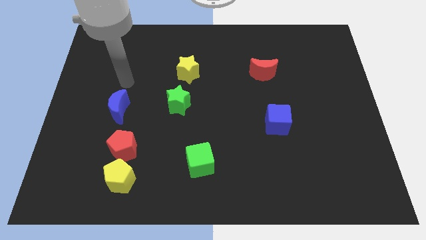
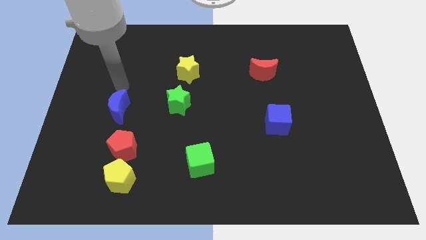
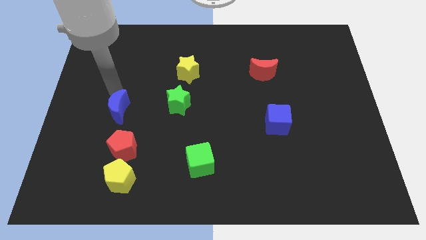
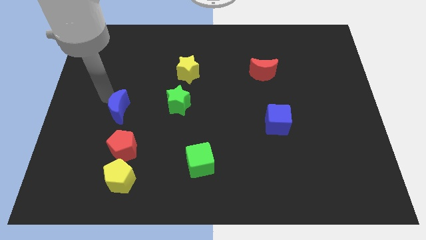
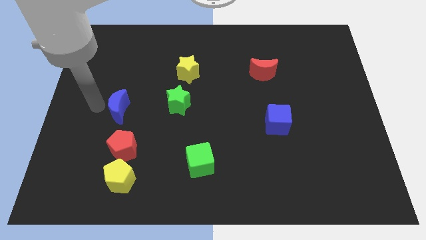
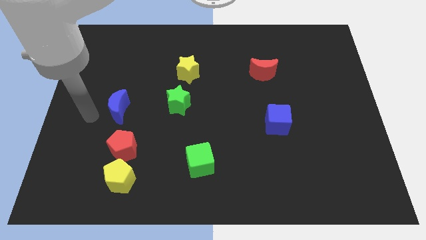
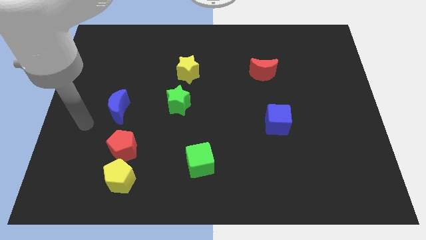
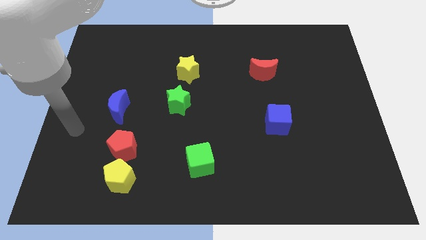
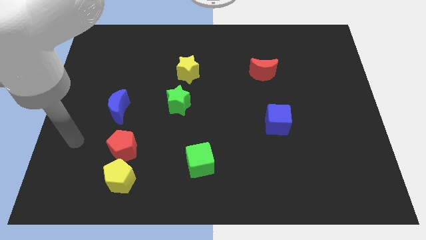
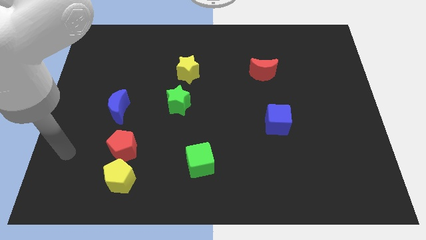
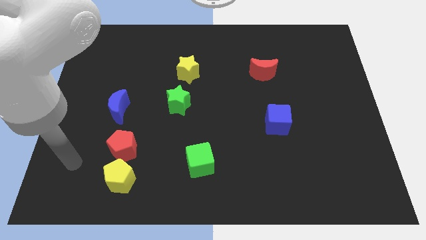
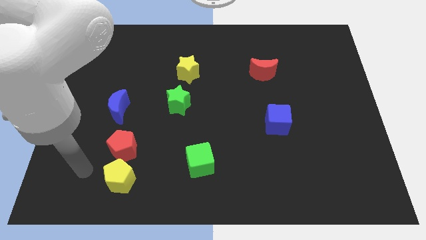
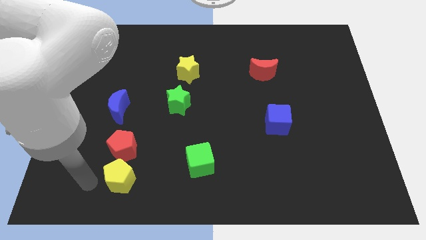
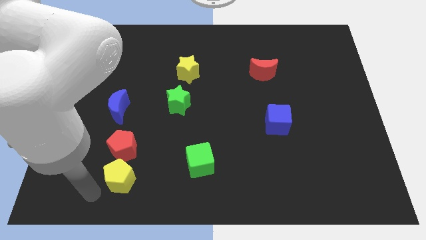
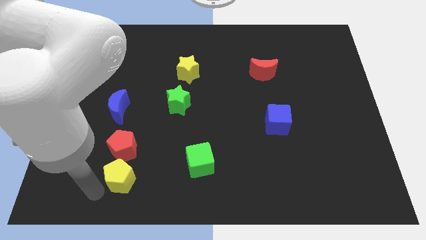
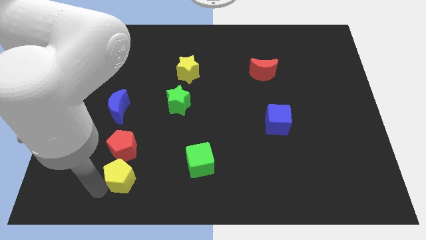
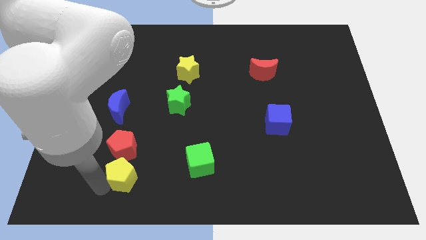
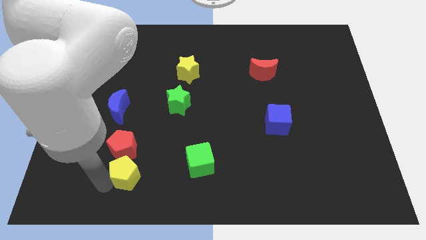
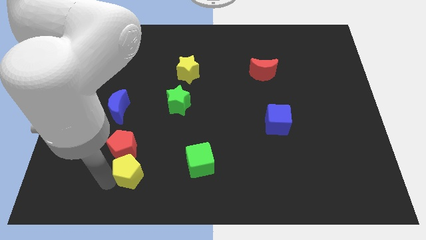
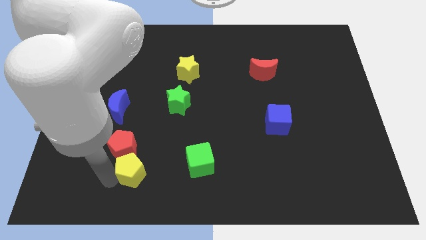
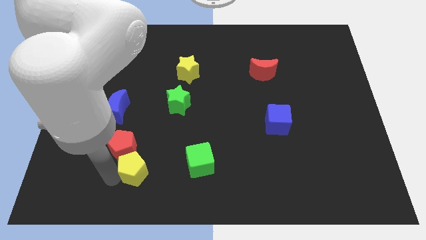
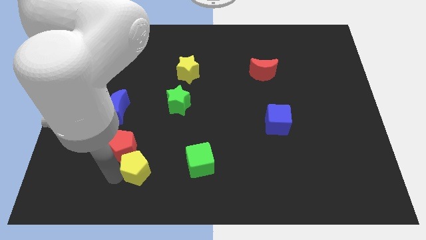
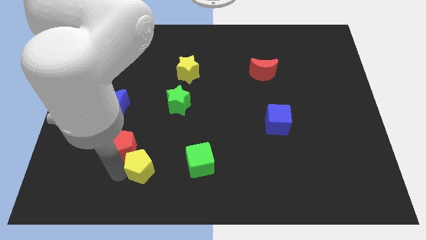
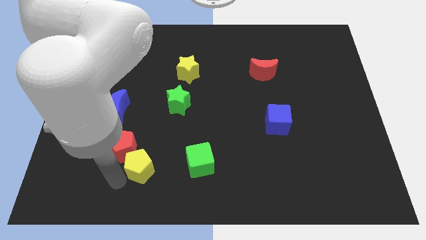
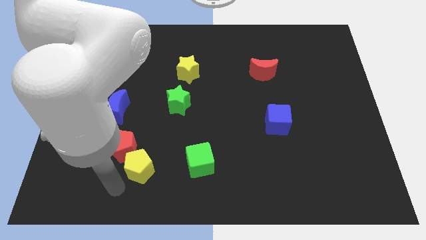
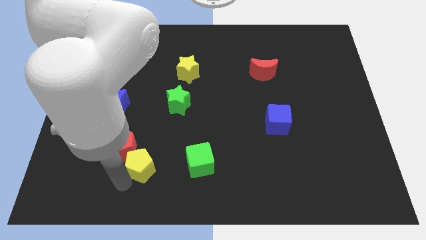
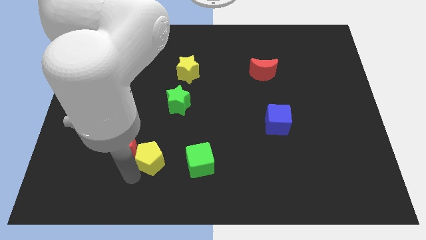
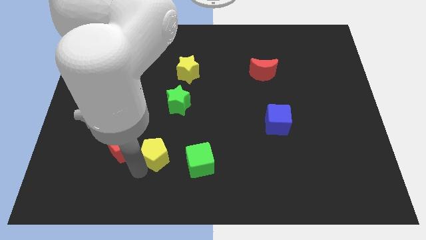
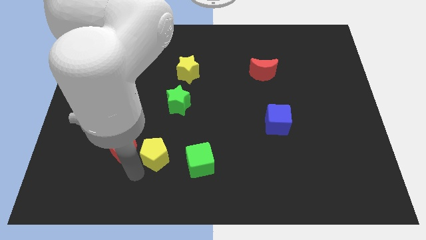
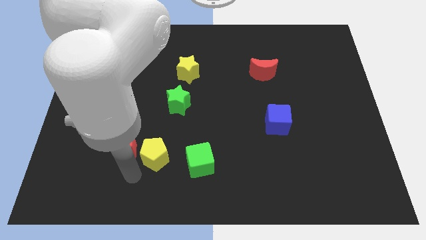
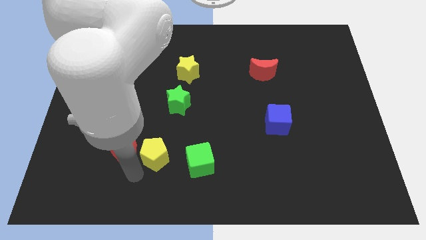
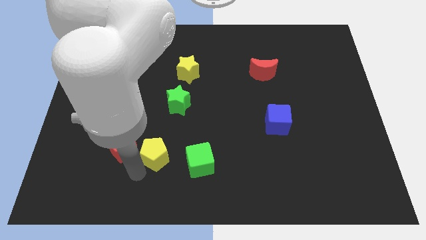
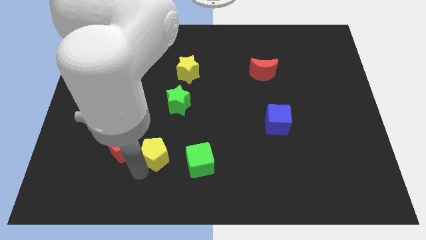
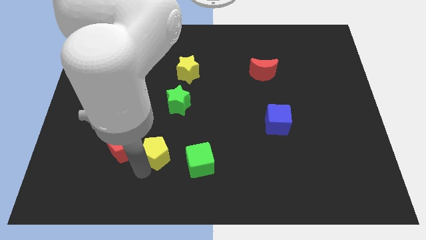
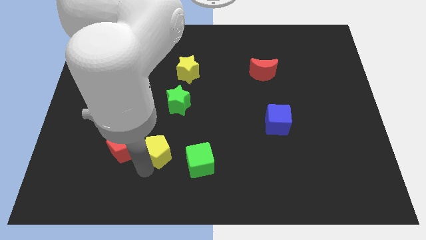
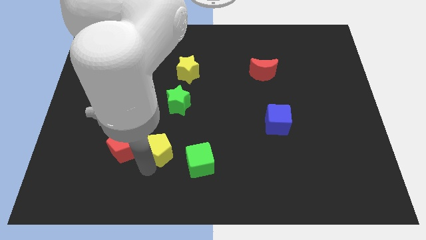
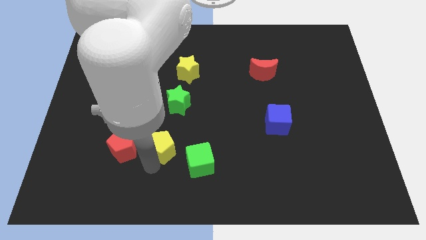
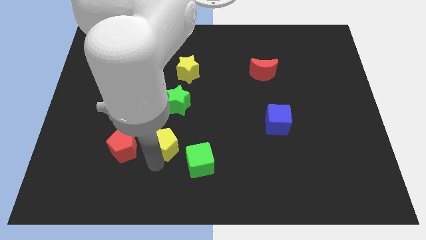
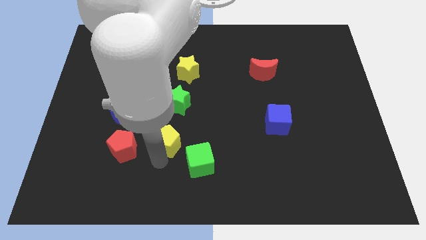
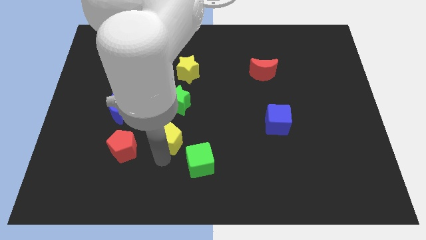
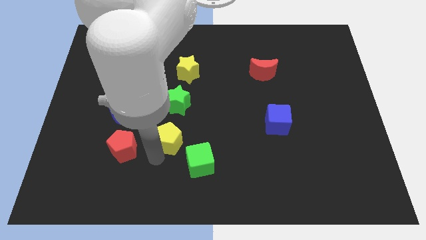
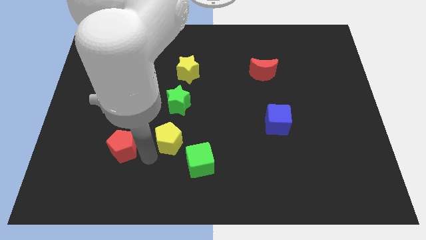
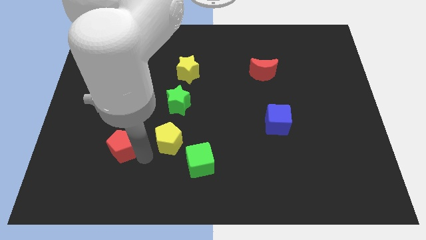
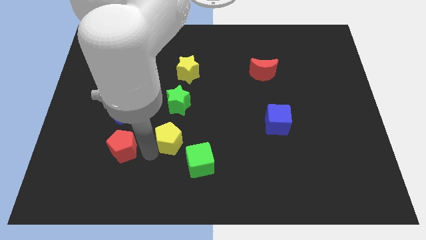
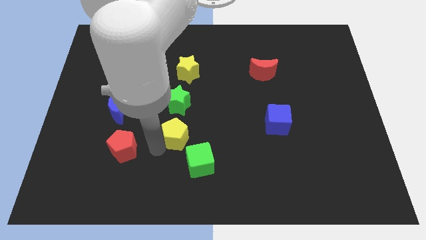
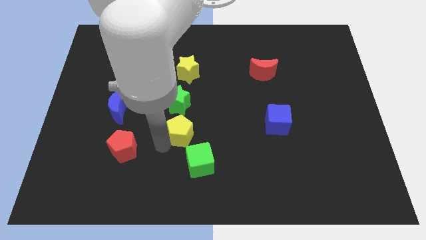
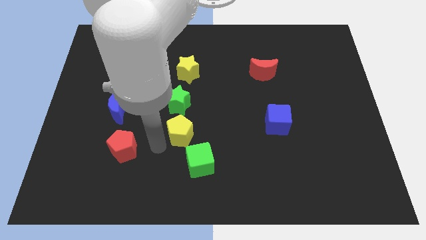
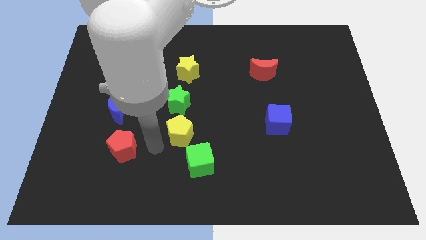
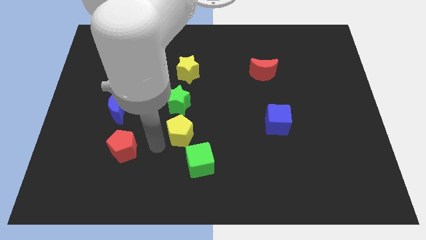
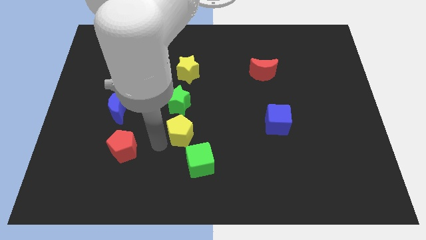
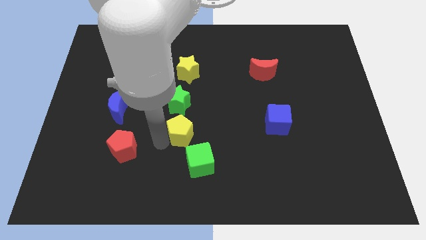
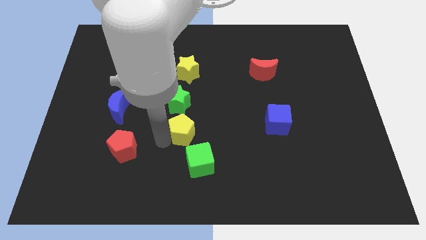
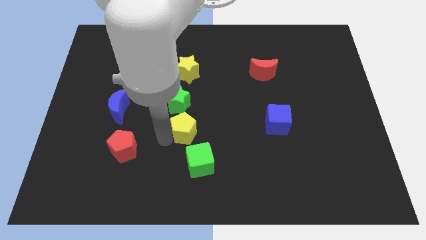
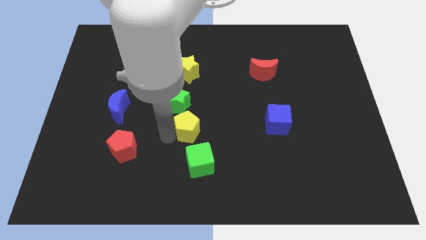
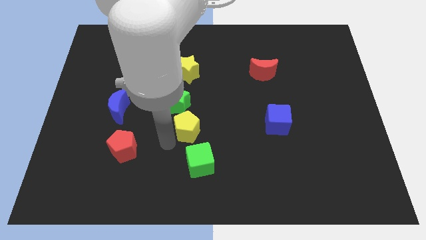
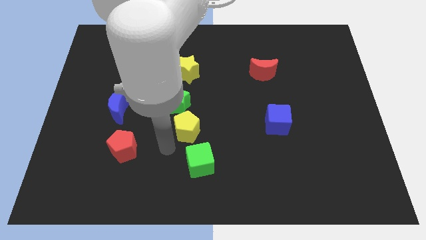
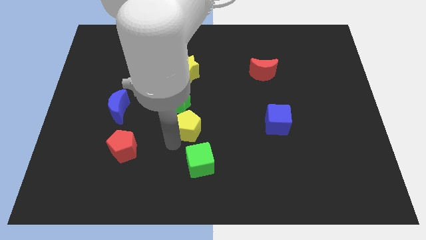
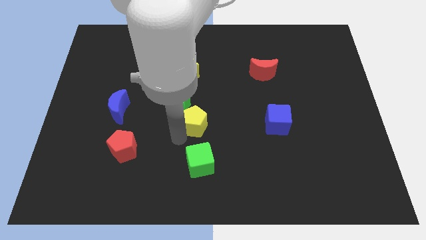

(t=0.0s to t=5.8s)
move the yellow pentagon diagonally upwards and right

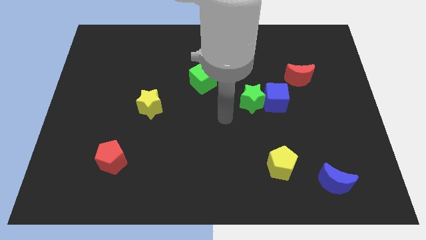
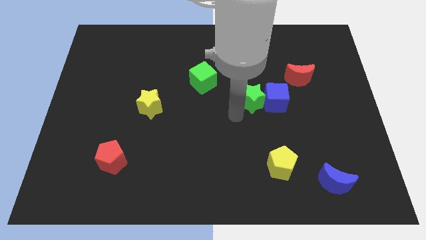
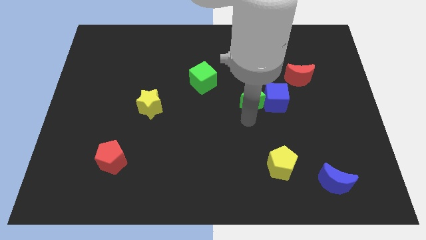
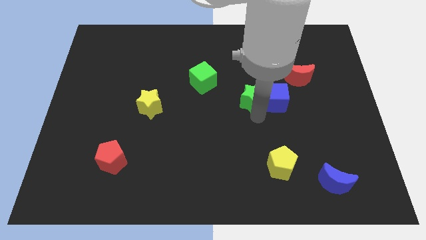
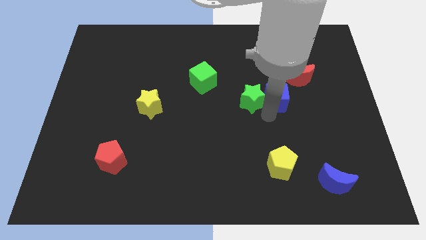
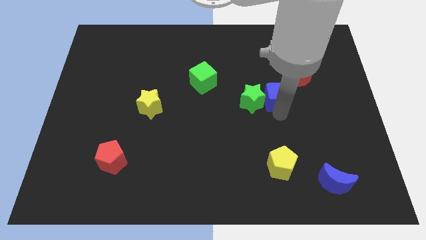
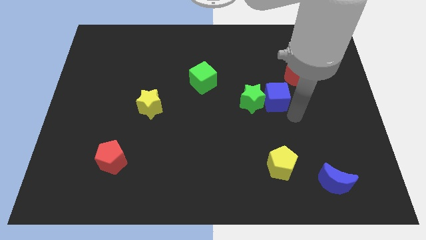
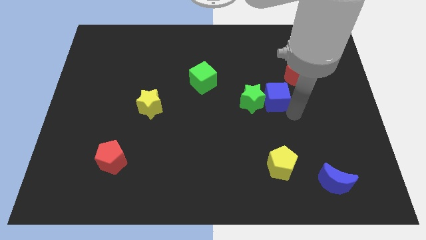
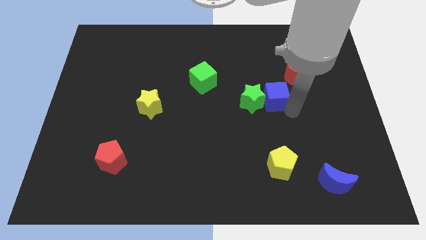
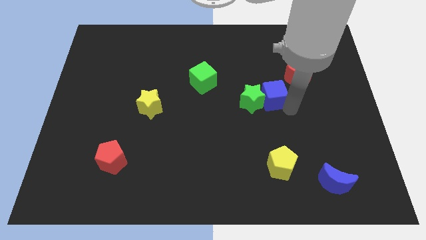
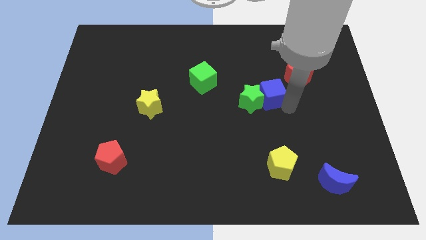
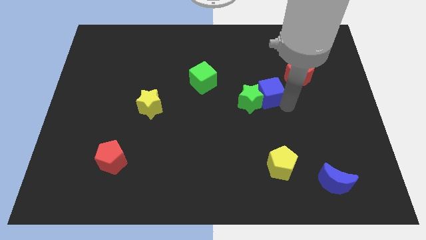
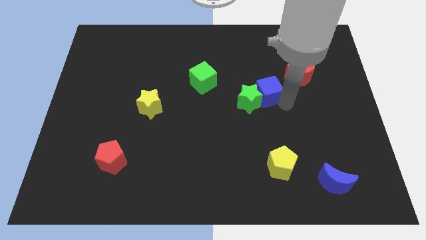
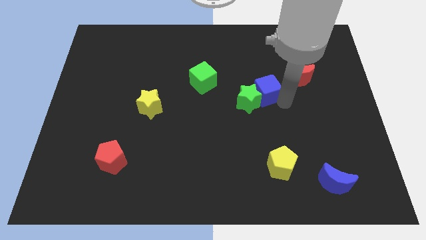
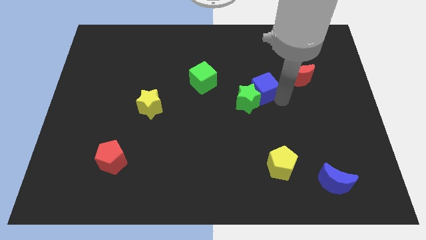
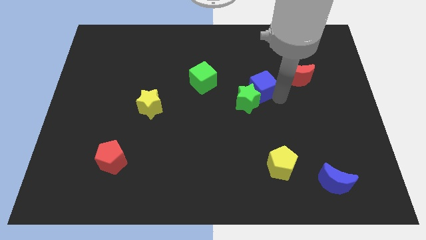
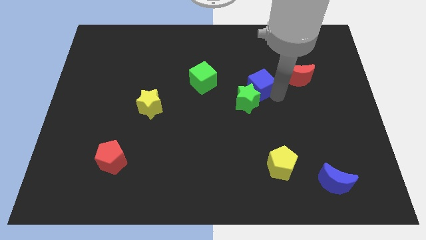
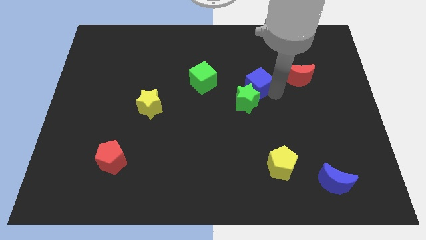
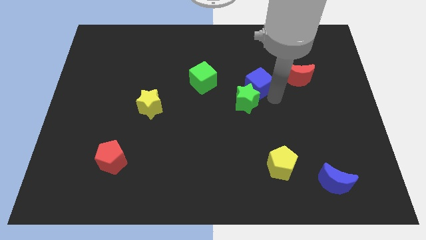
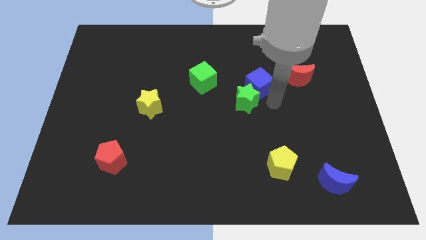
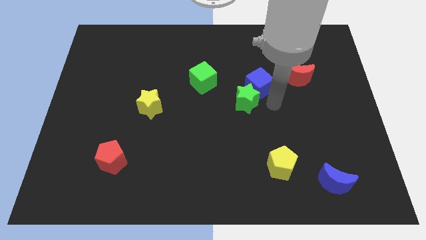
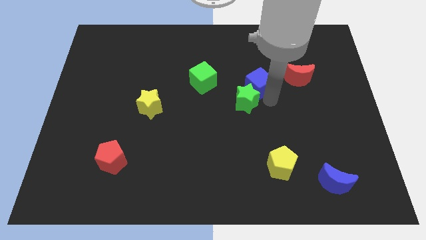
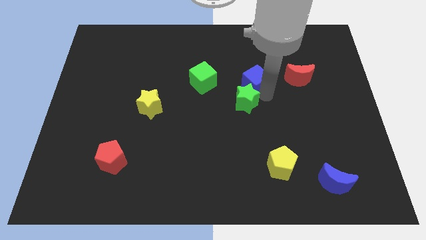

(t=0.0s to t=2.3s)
slide the blue cube upwards and left diagonally slightly
